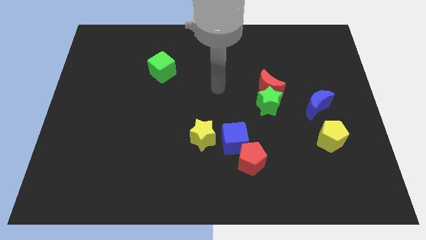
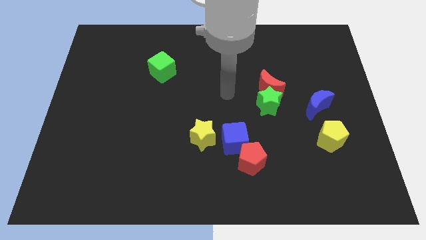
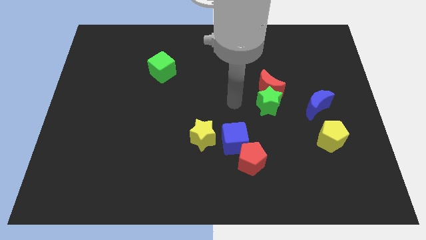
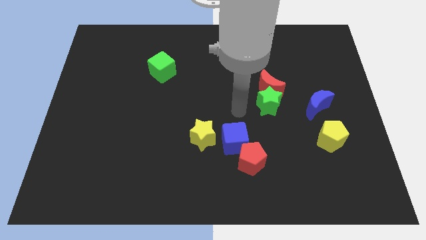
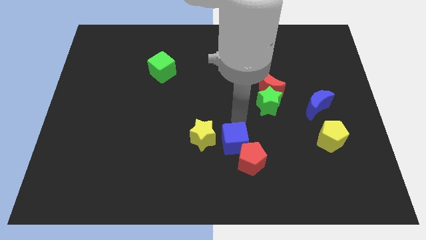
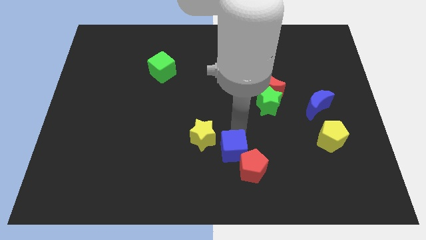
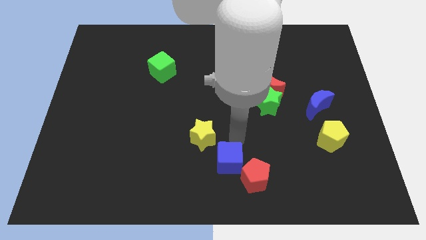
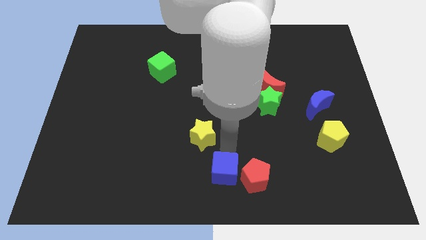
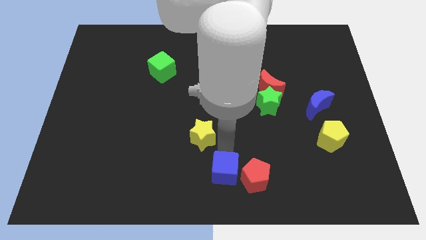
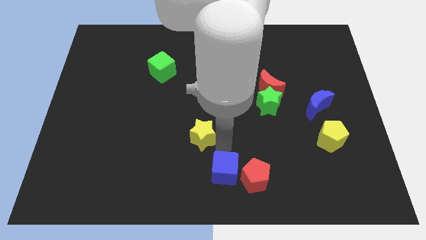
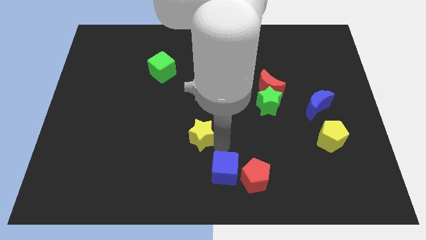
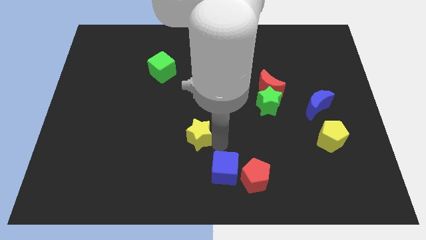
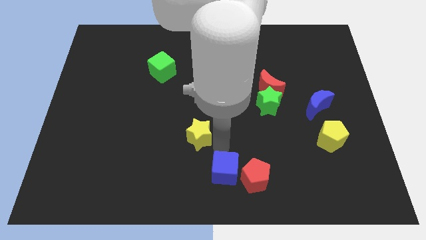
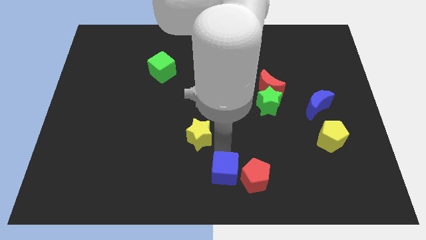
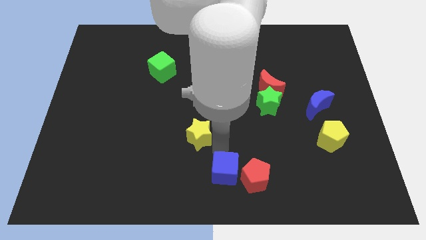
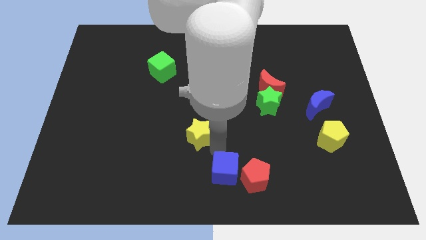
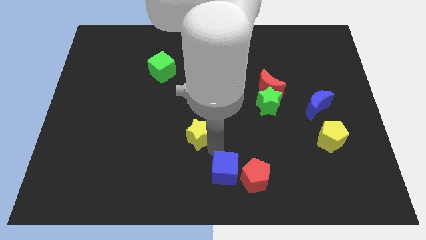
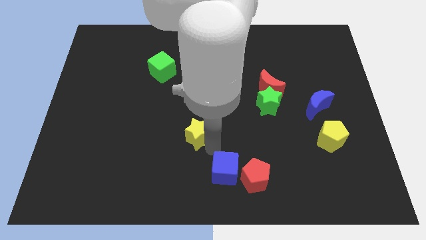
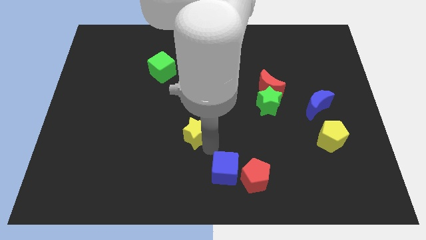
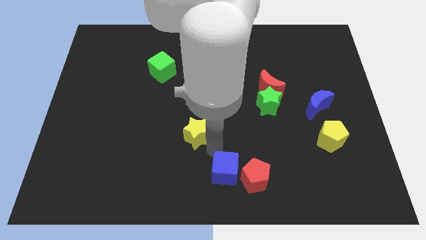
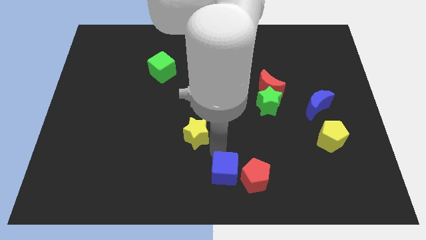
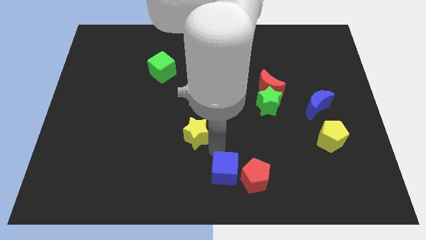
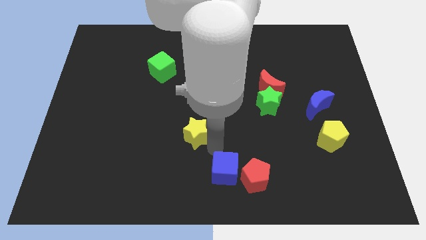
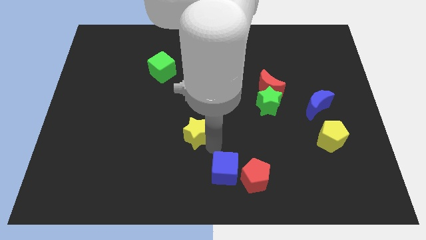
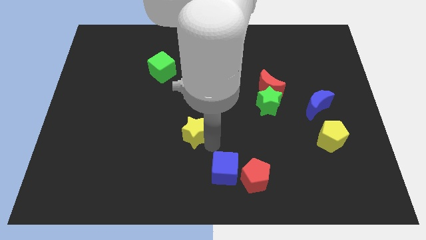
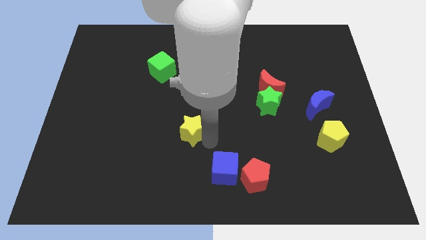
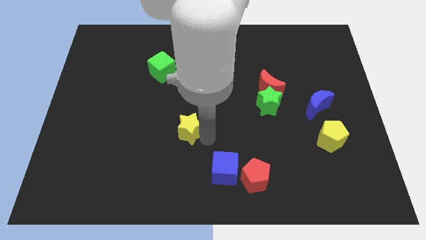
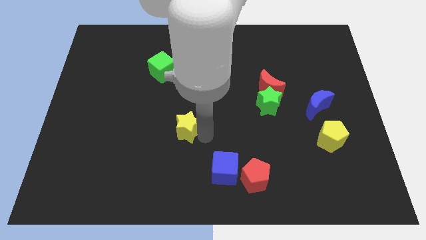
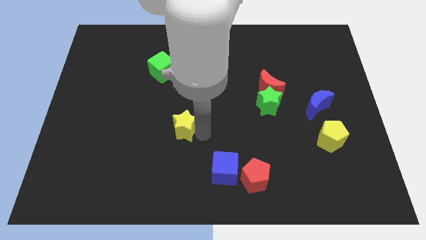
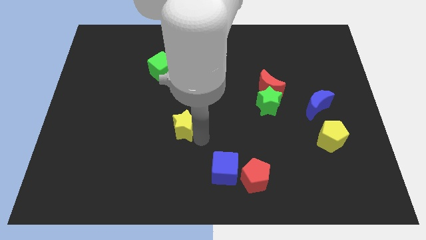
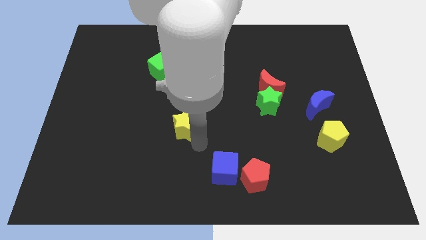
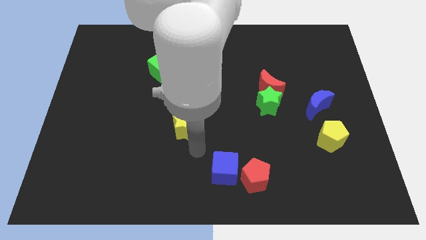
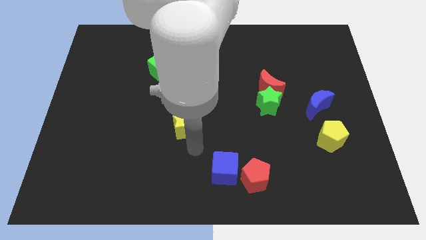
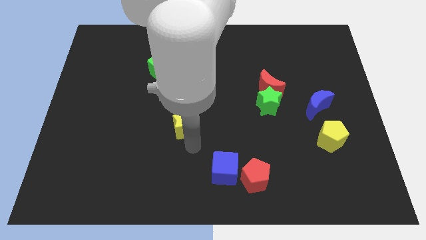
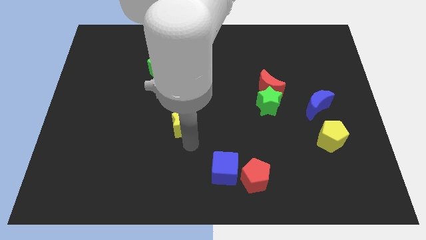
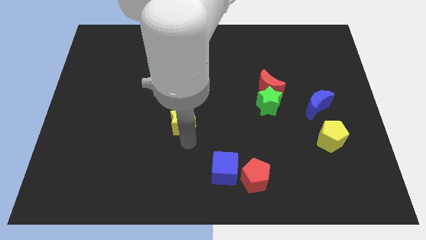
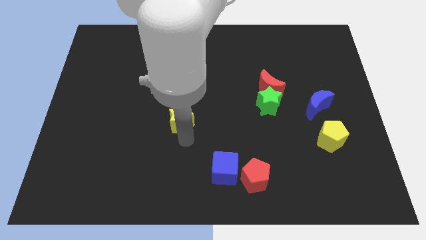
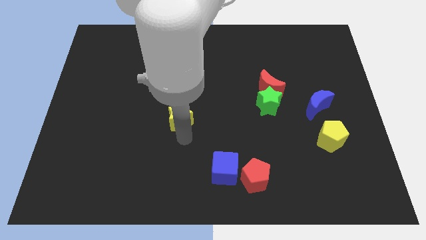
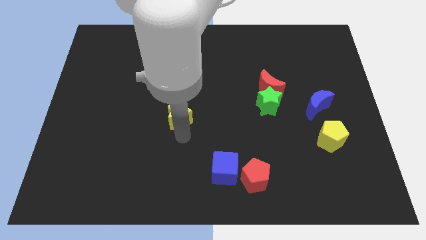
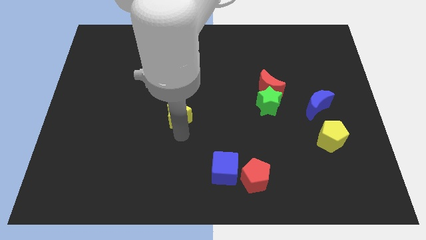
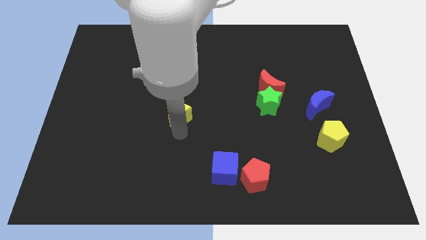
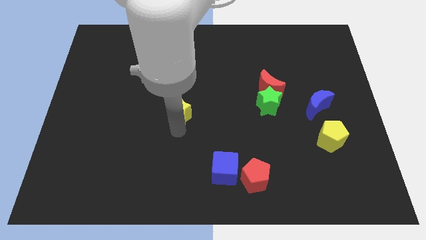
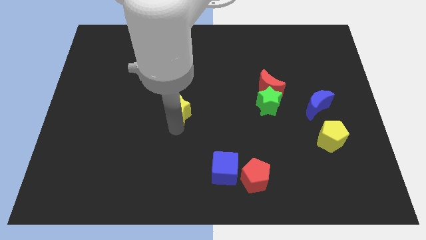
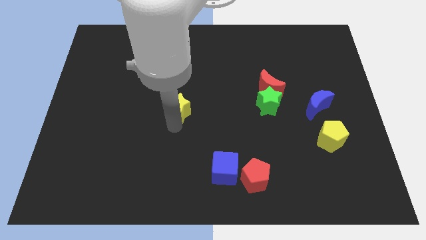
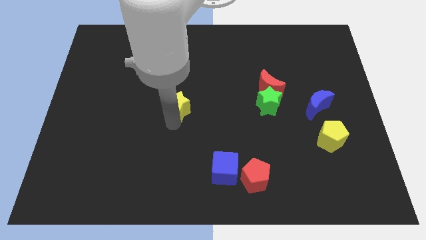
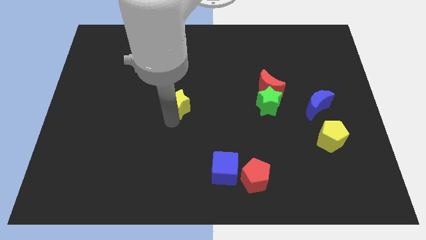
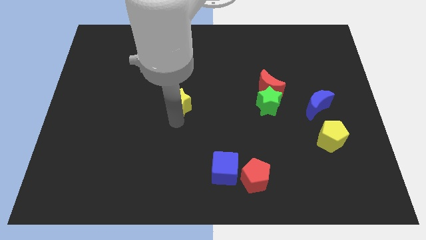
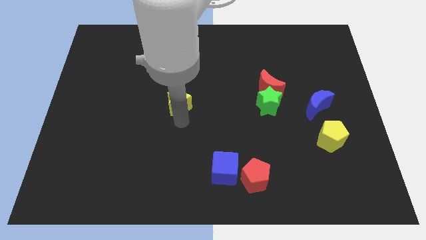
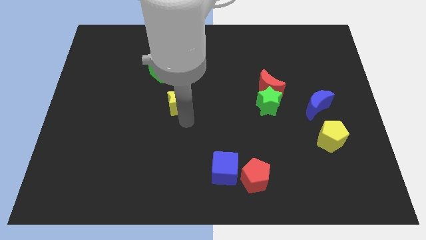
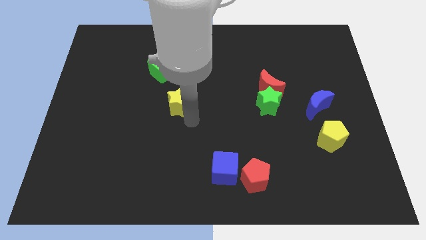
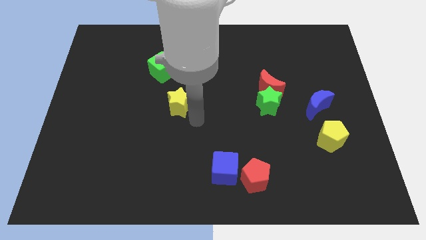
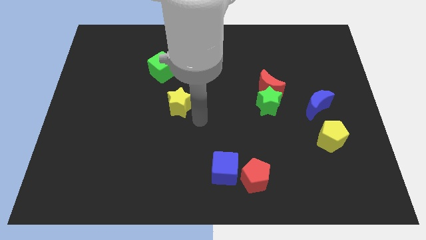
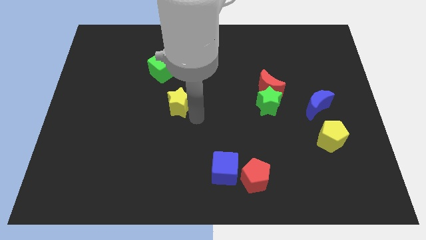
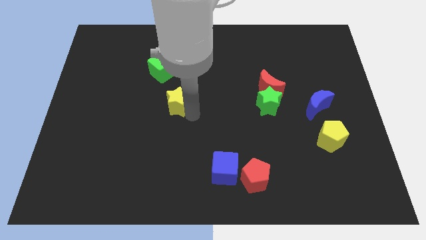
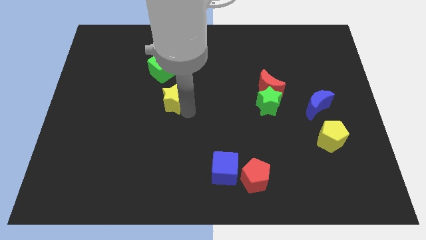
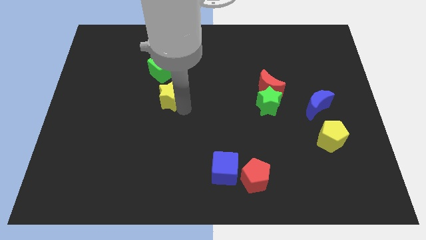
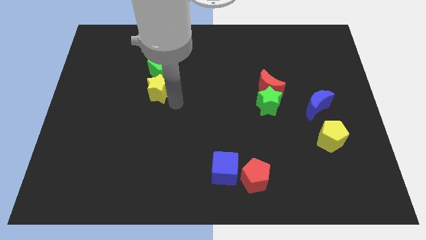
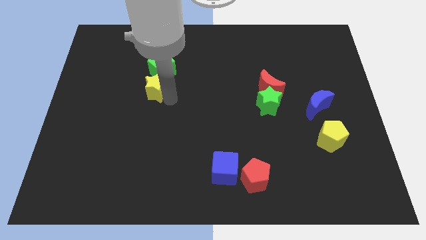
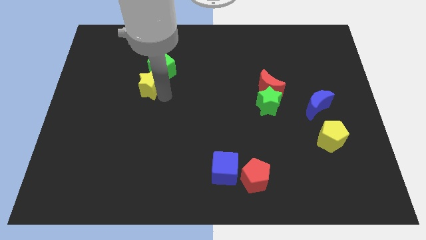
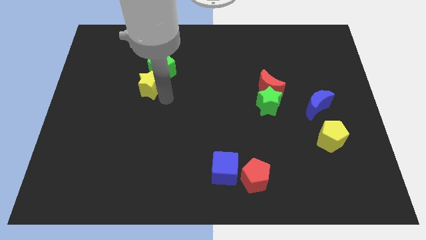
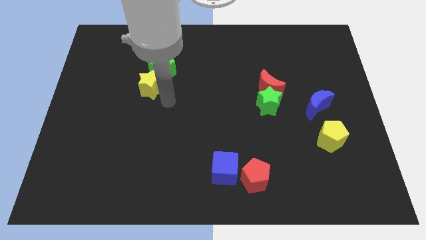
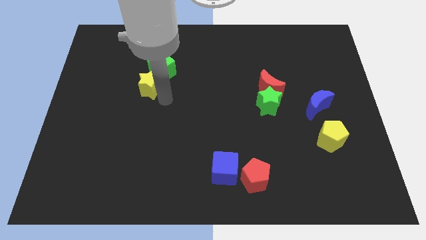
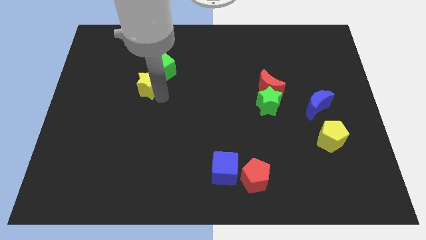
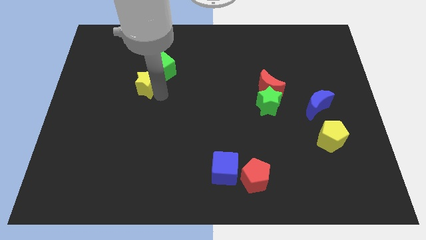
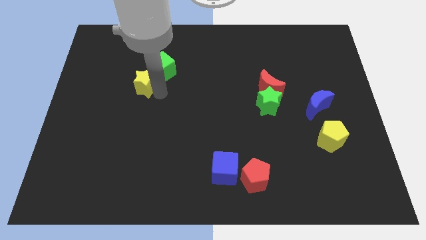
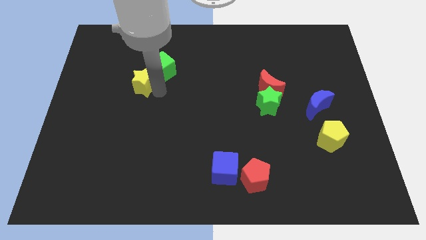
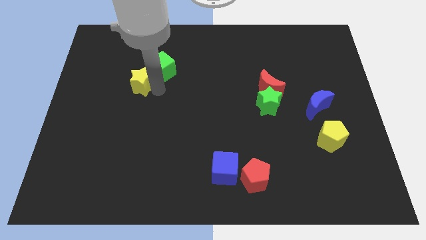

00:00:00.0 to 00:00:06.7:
push the yellow star just left of the green cube
